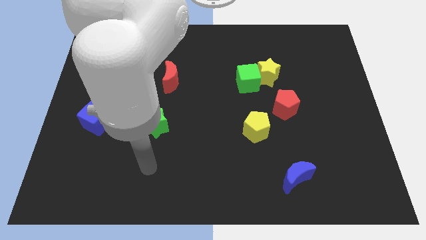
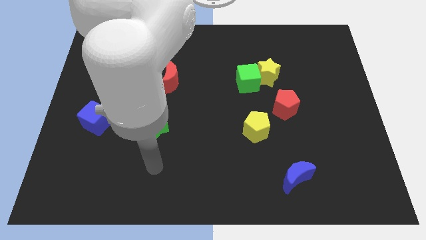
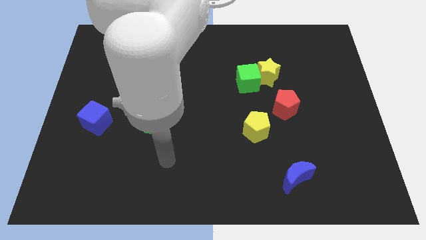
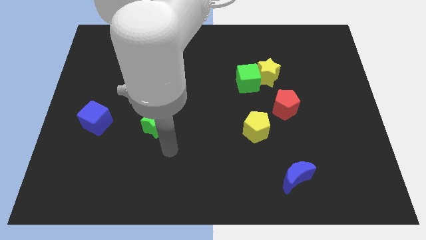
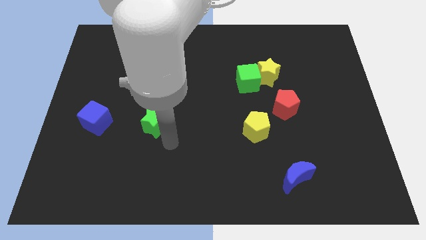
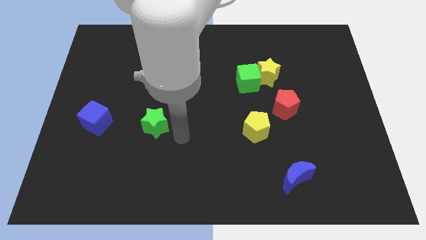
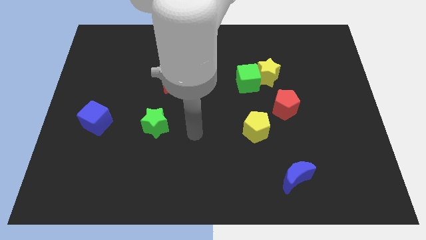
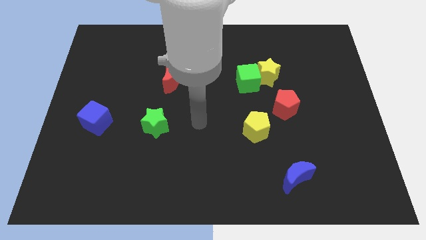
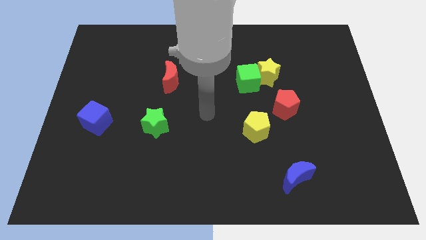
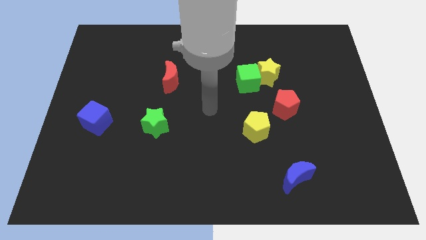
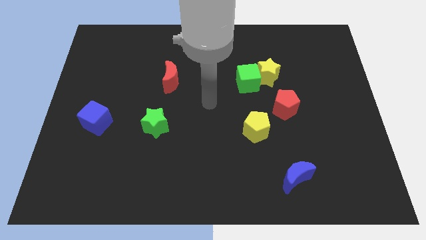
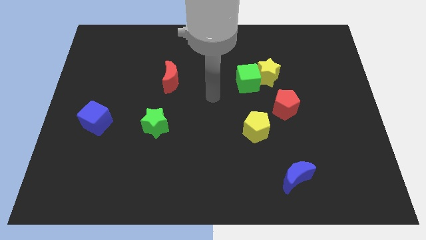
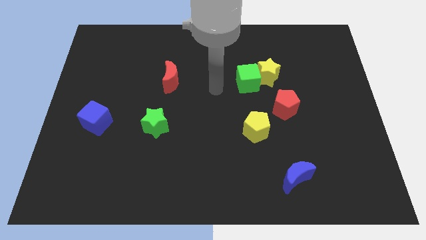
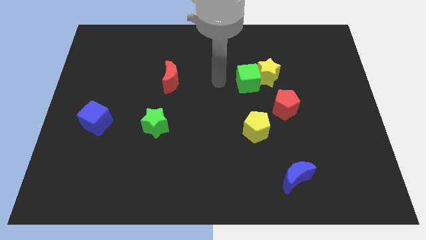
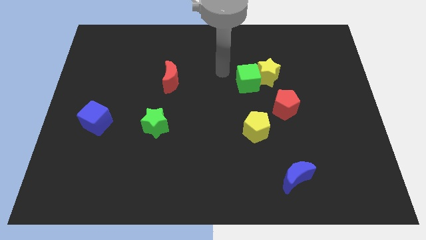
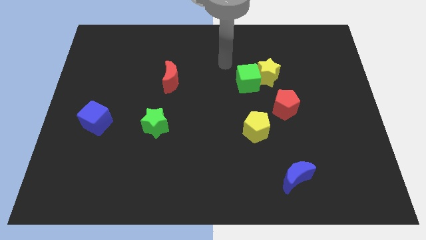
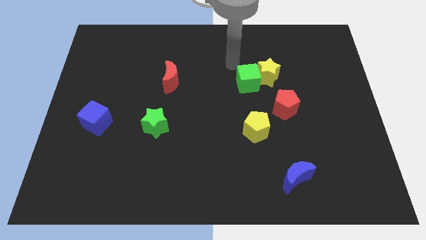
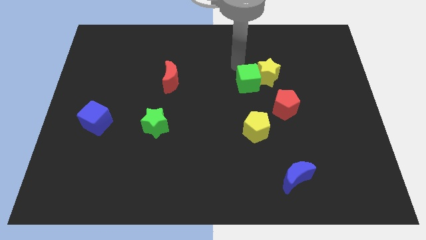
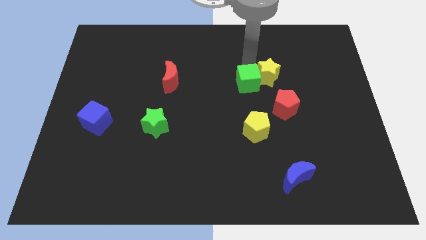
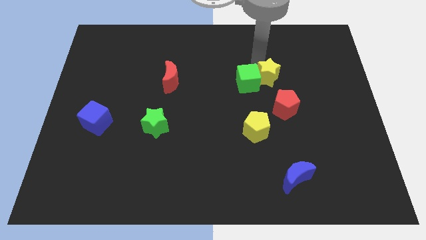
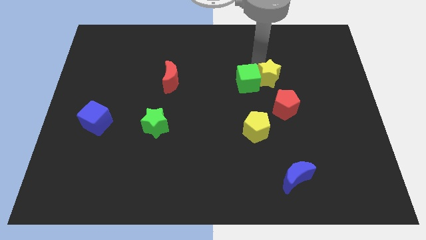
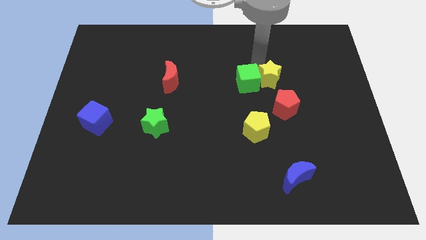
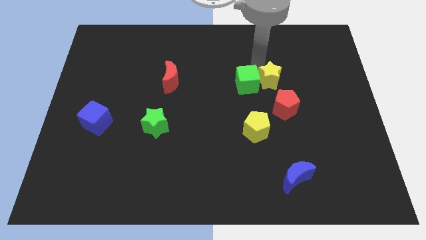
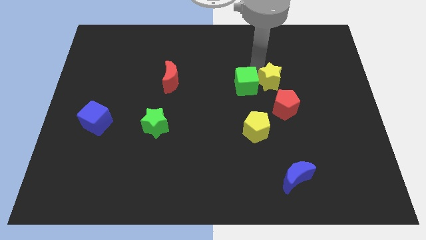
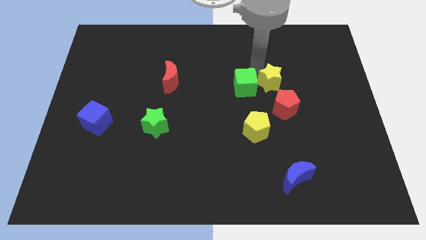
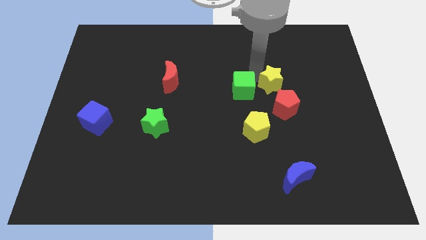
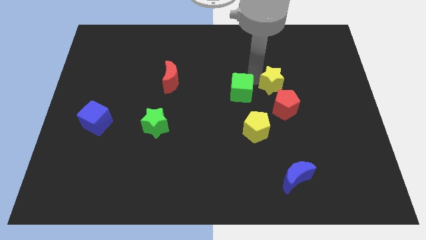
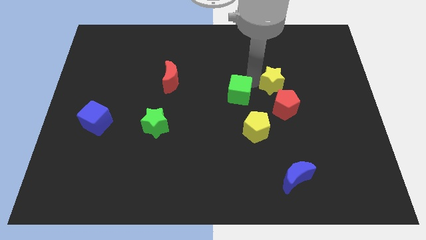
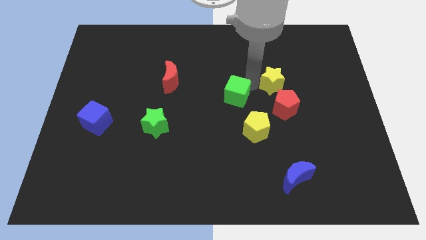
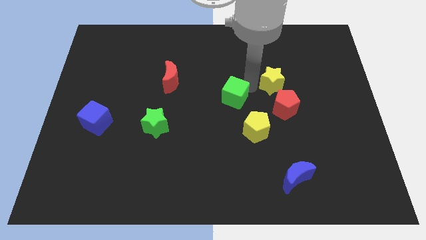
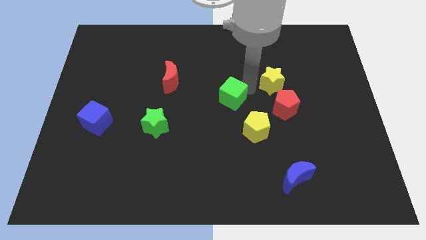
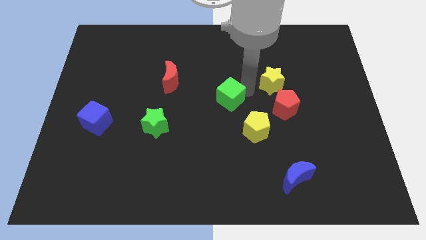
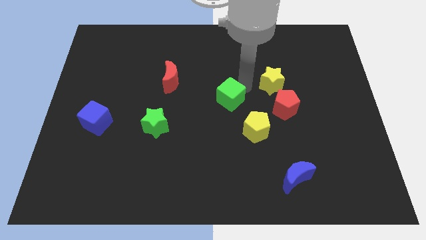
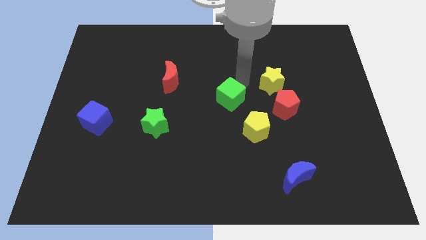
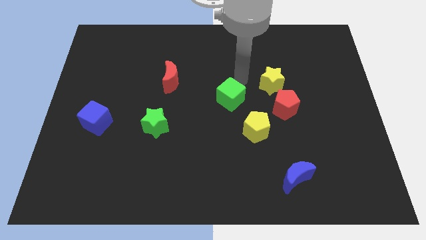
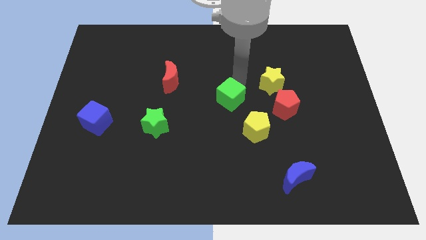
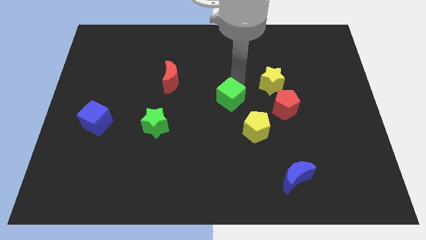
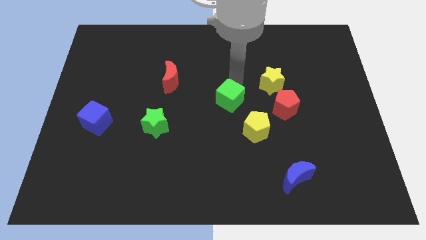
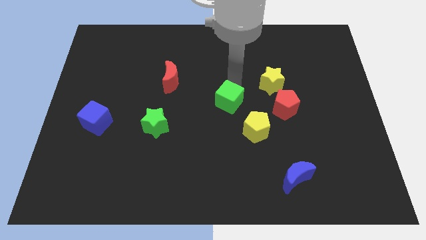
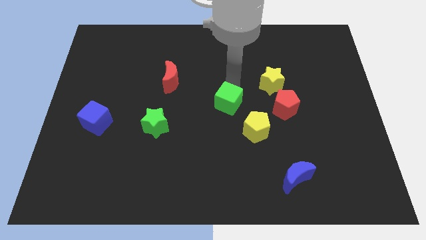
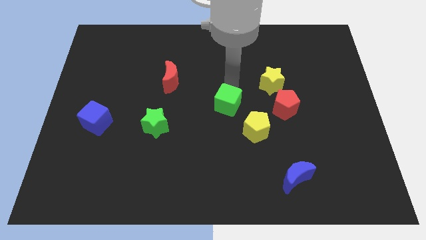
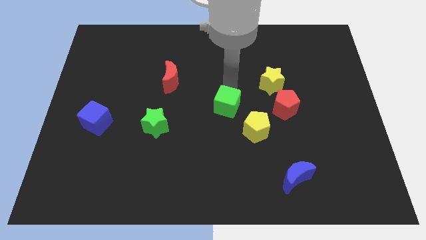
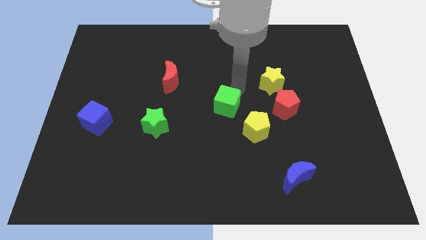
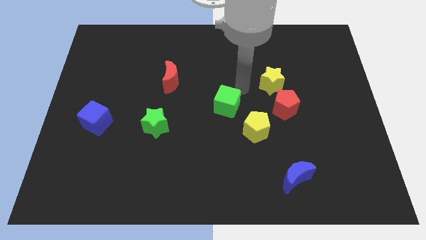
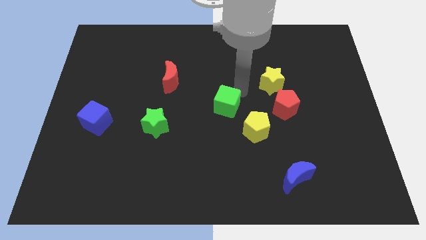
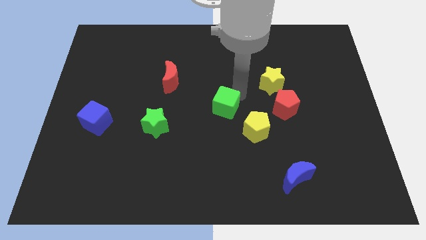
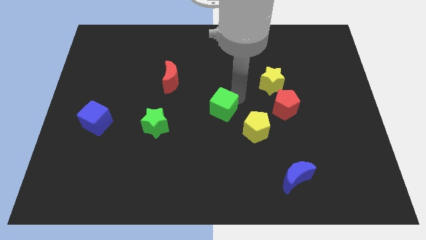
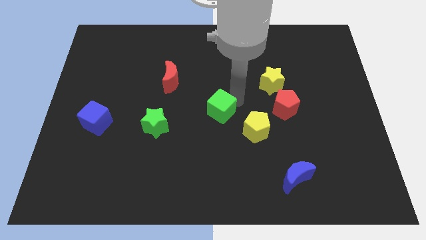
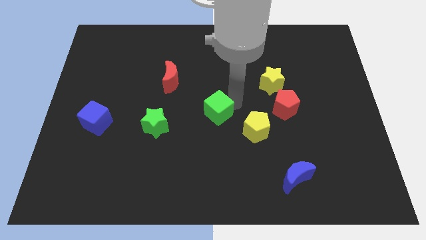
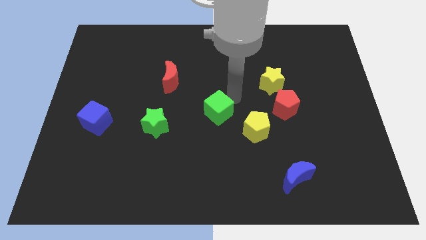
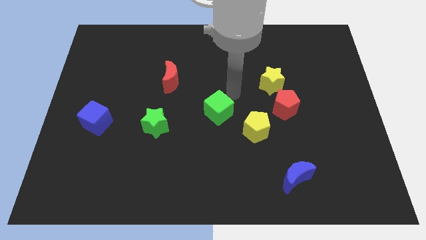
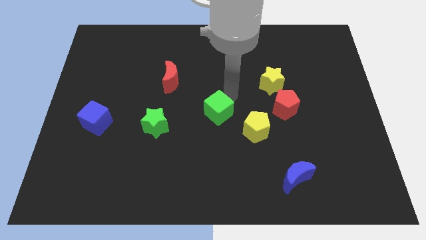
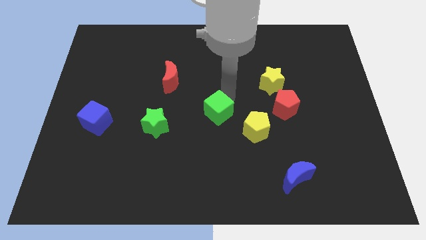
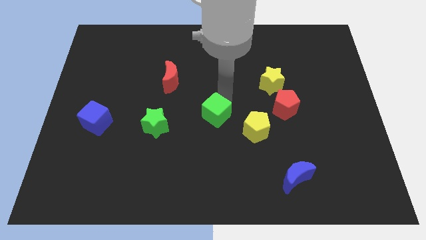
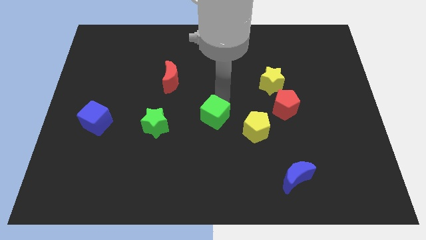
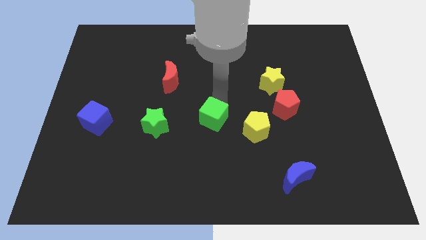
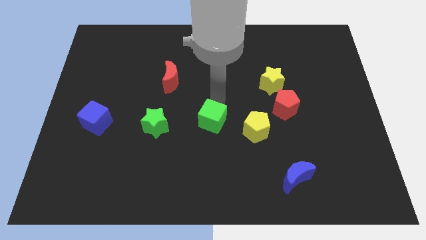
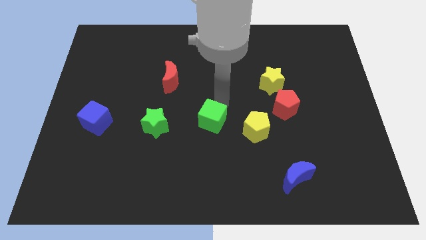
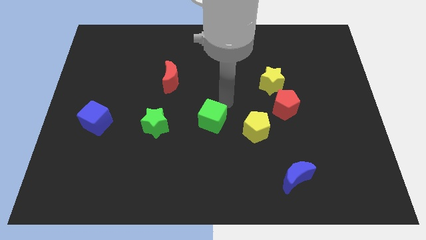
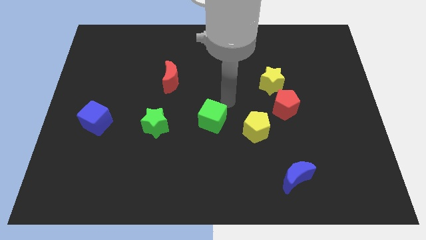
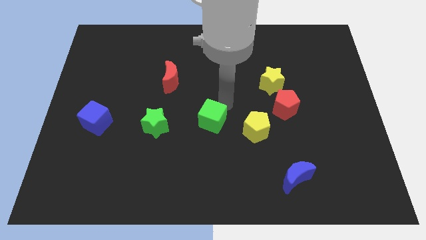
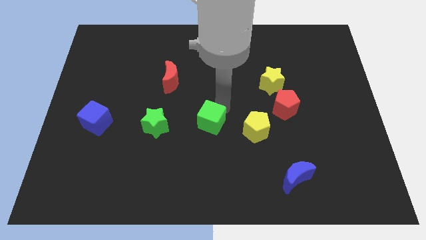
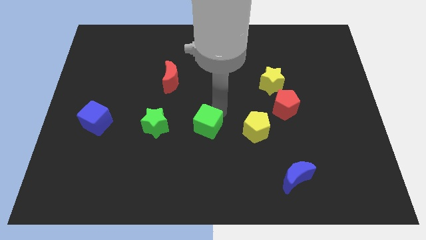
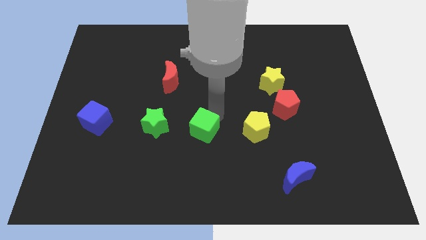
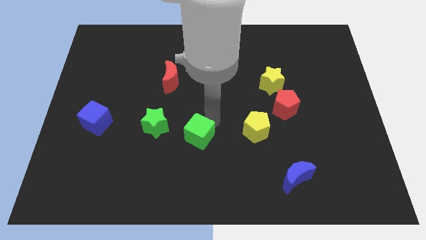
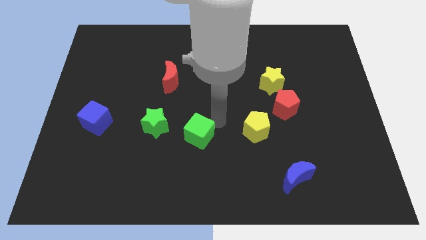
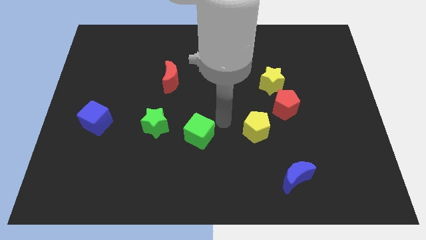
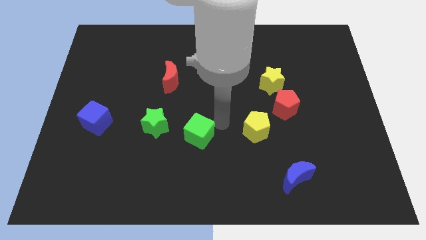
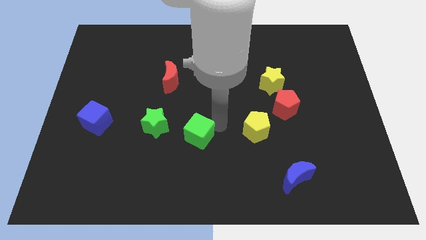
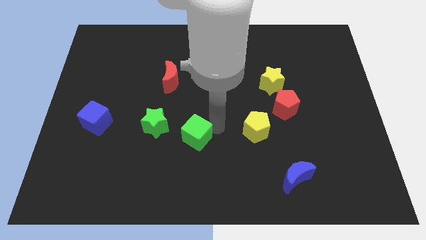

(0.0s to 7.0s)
put the green cube to the bottom right side of the green star

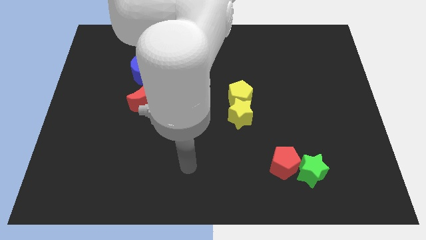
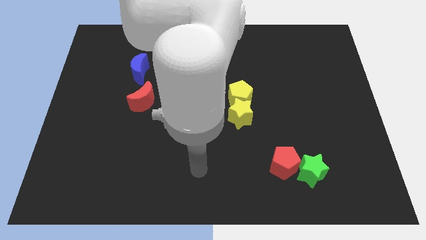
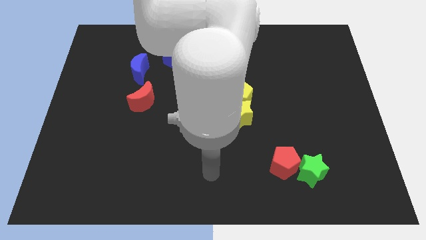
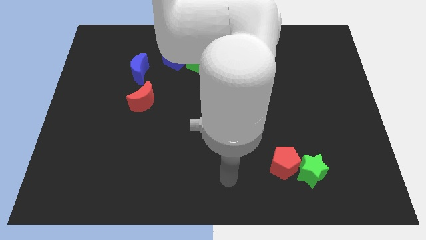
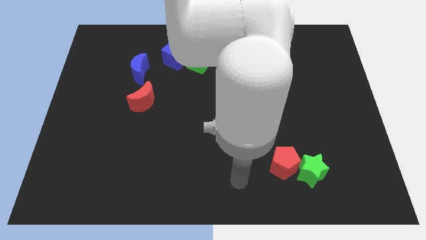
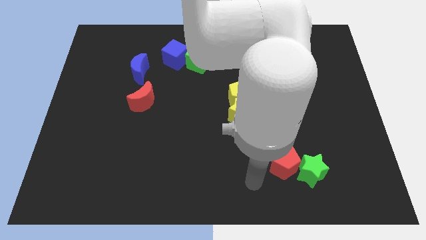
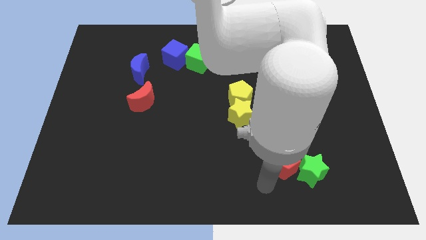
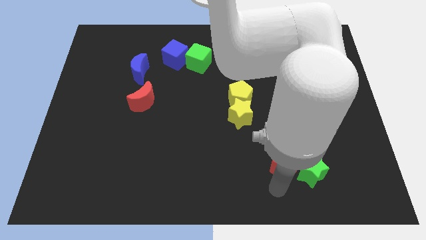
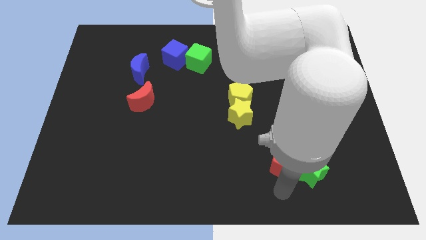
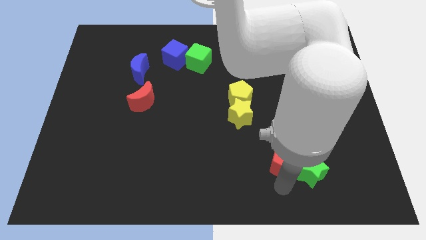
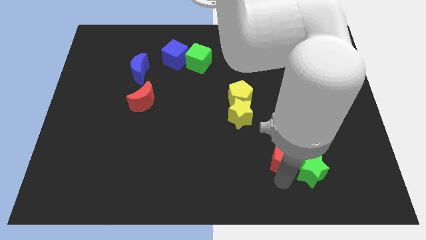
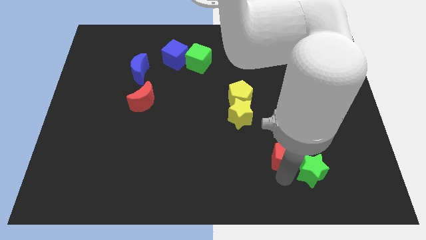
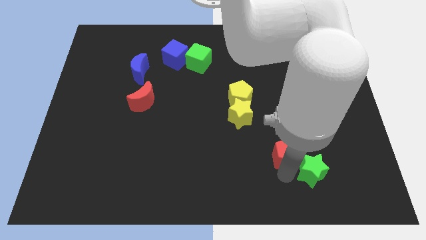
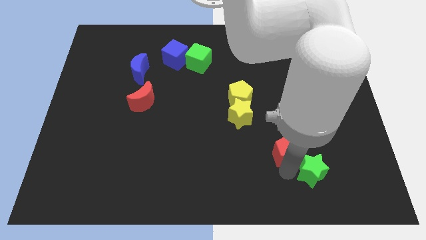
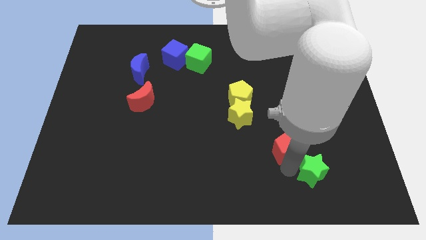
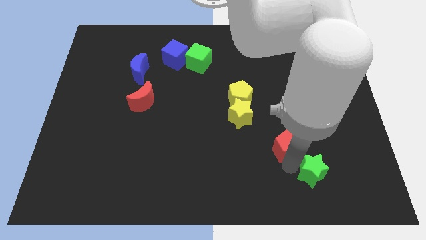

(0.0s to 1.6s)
push the red pentagon to the bottom right of the yellow star
